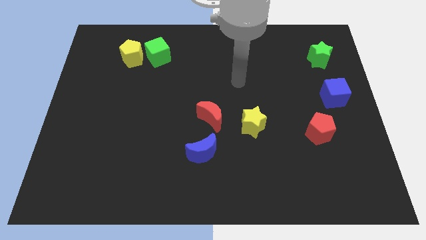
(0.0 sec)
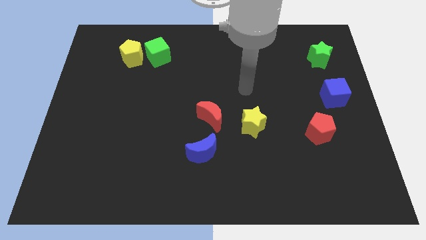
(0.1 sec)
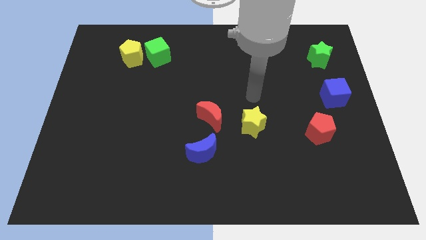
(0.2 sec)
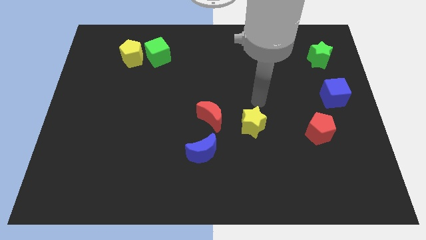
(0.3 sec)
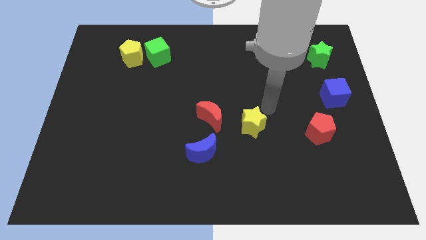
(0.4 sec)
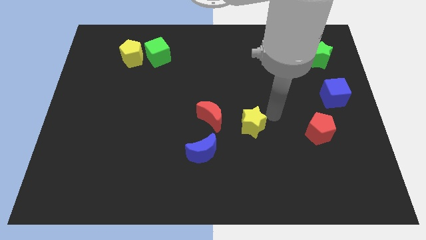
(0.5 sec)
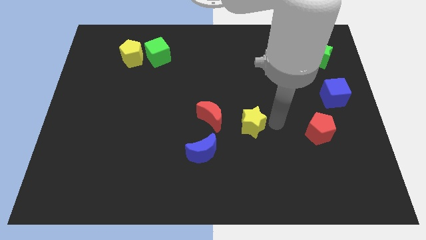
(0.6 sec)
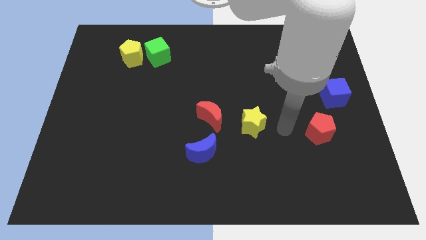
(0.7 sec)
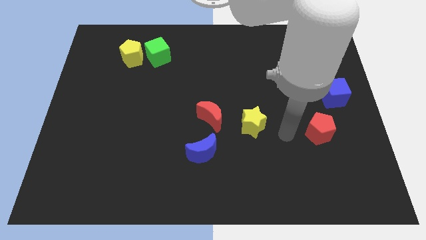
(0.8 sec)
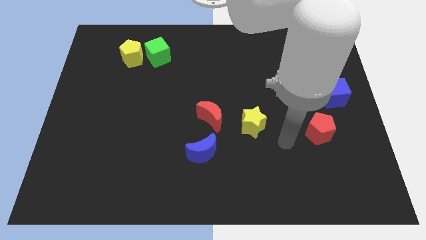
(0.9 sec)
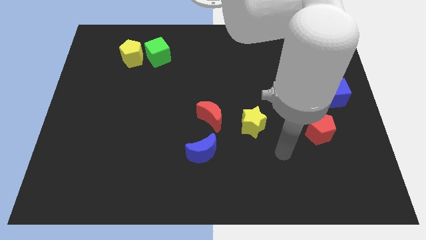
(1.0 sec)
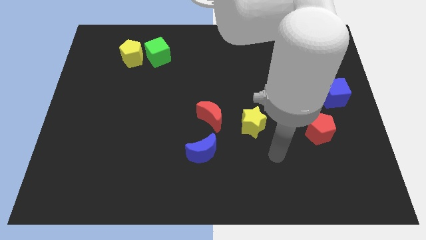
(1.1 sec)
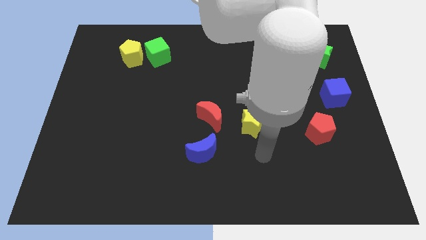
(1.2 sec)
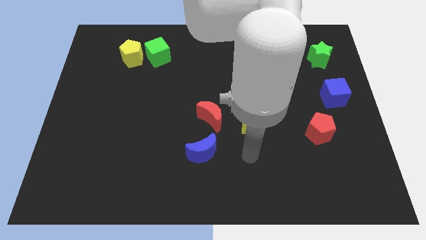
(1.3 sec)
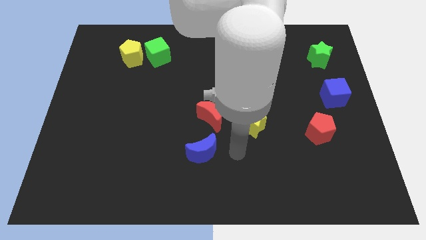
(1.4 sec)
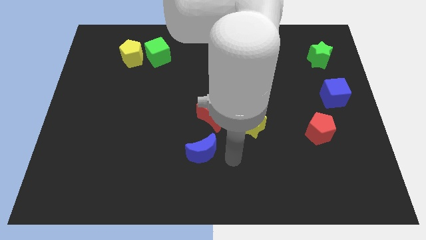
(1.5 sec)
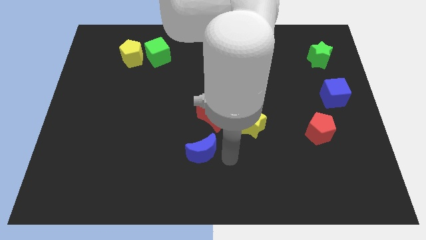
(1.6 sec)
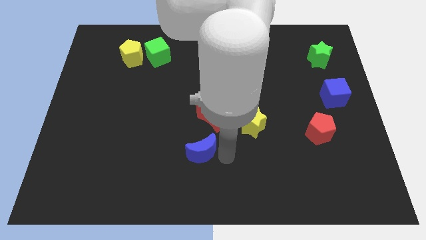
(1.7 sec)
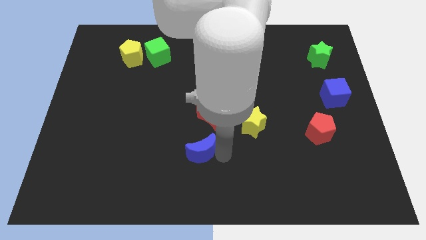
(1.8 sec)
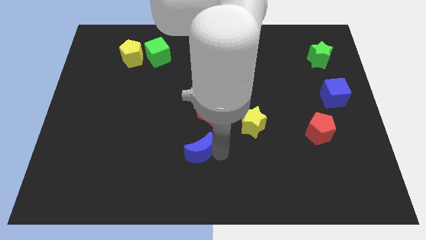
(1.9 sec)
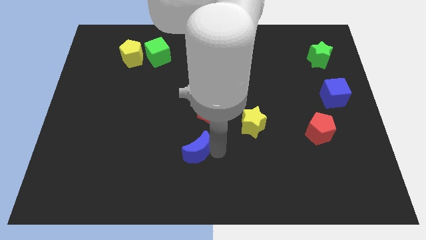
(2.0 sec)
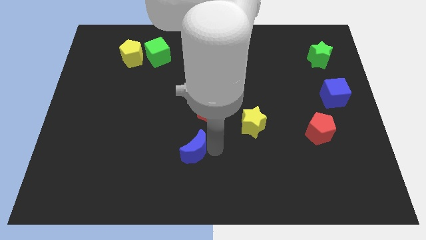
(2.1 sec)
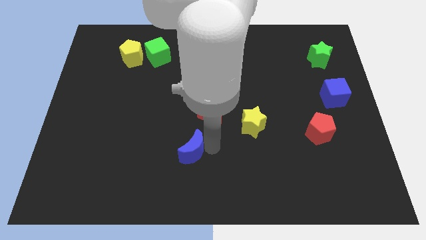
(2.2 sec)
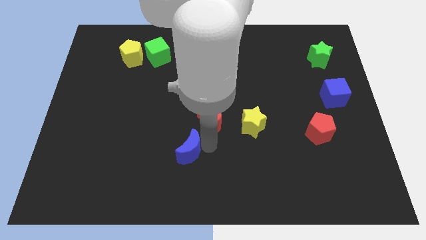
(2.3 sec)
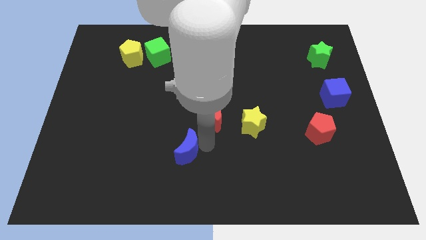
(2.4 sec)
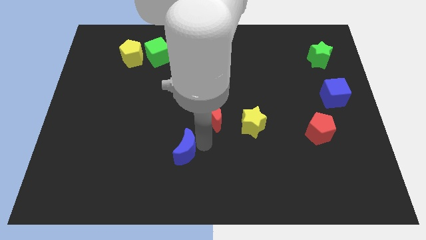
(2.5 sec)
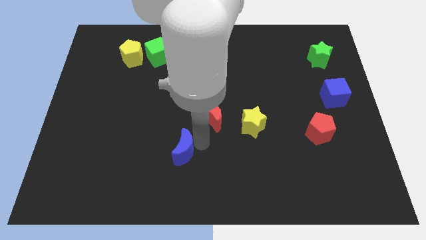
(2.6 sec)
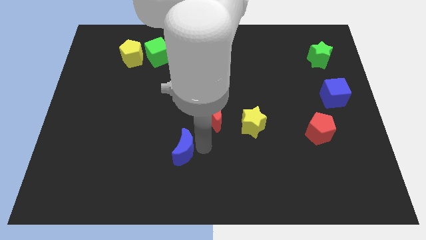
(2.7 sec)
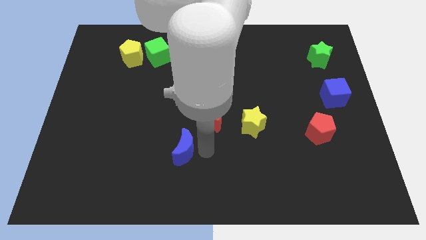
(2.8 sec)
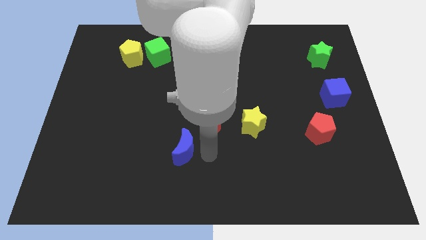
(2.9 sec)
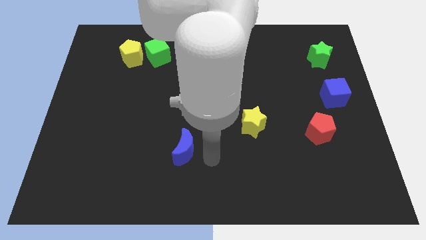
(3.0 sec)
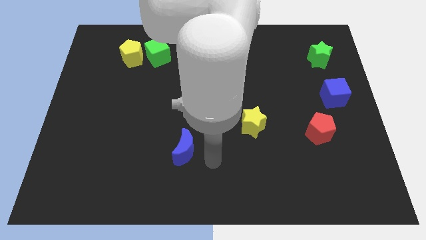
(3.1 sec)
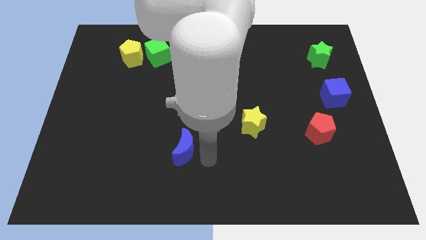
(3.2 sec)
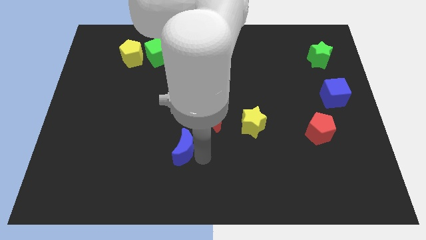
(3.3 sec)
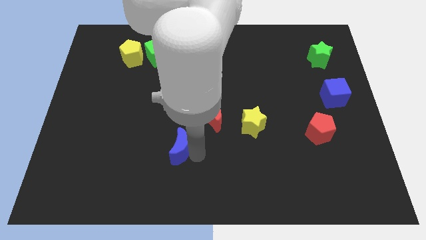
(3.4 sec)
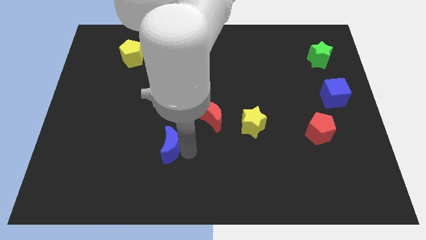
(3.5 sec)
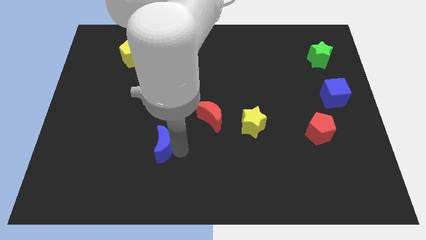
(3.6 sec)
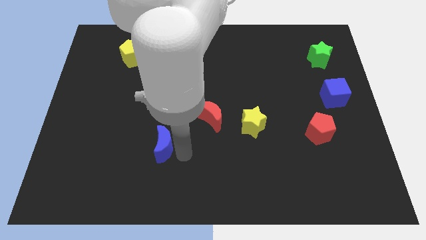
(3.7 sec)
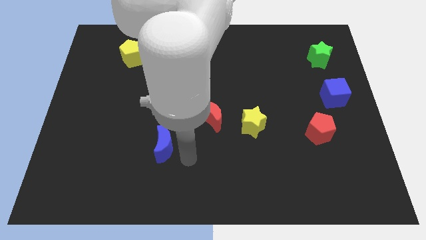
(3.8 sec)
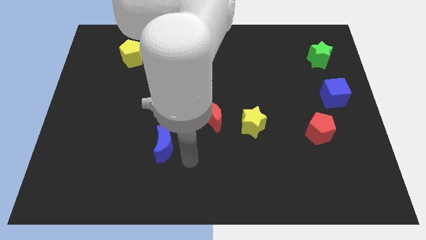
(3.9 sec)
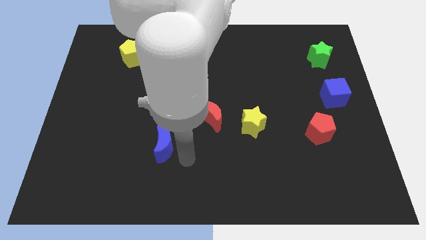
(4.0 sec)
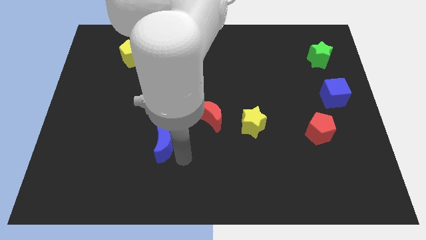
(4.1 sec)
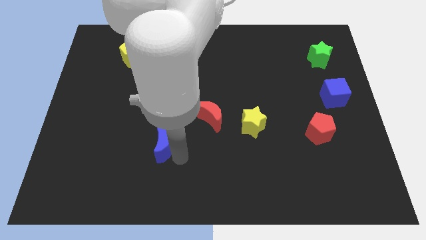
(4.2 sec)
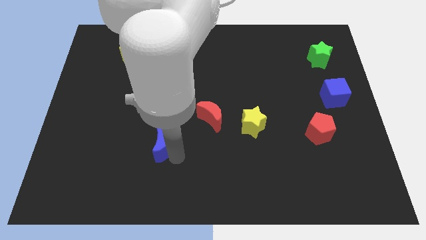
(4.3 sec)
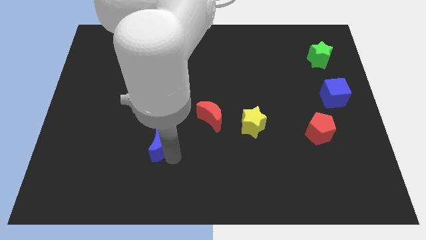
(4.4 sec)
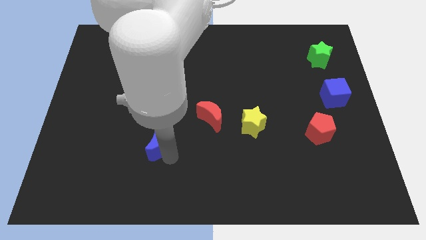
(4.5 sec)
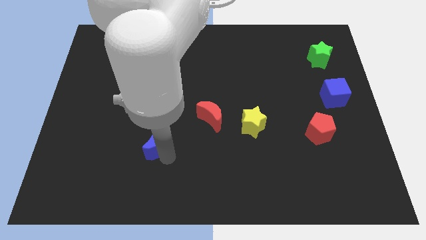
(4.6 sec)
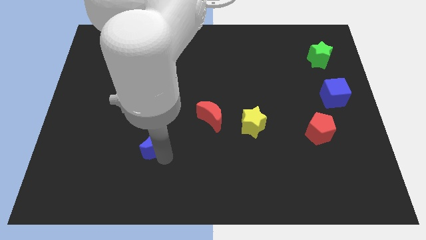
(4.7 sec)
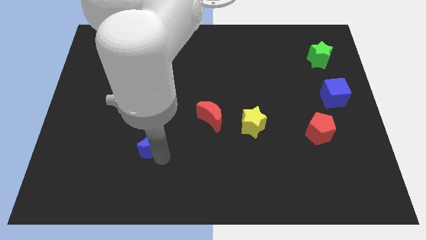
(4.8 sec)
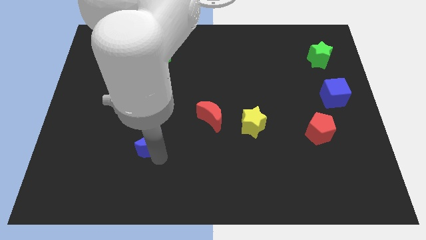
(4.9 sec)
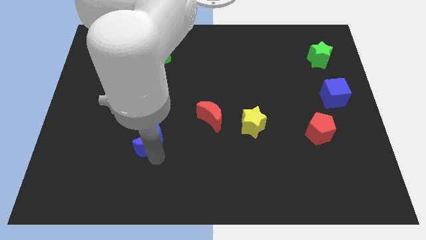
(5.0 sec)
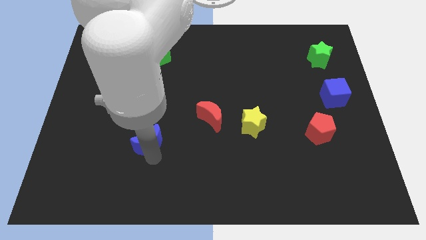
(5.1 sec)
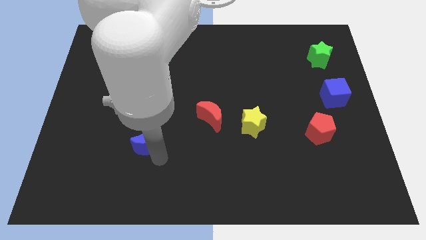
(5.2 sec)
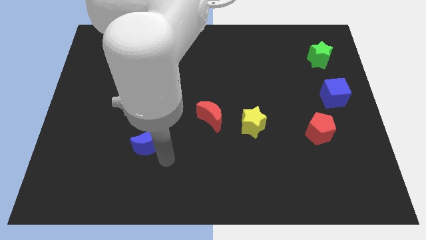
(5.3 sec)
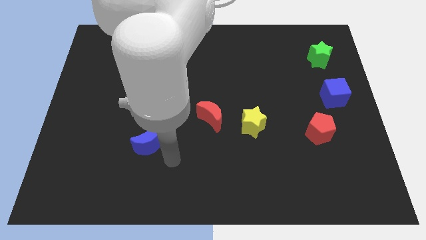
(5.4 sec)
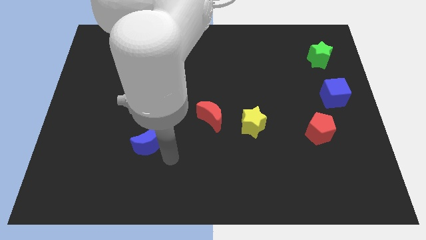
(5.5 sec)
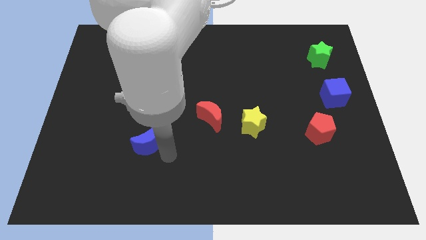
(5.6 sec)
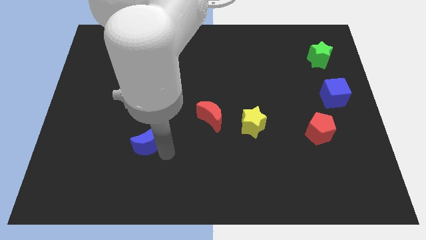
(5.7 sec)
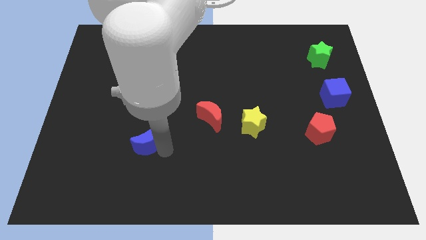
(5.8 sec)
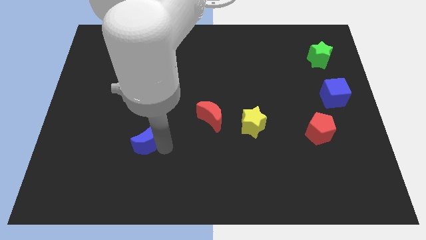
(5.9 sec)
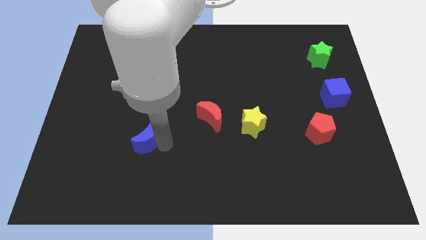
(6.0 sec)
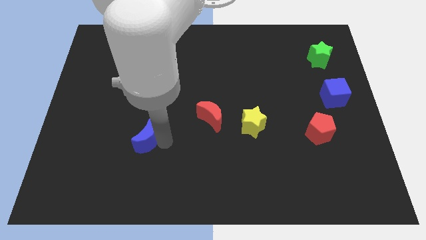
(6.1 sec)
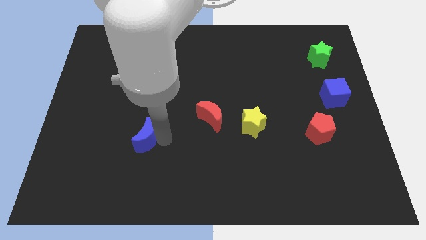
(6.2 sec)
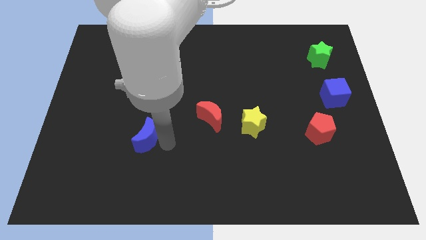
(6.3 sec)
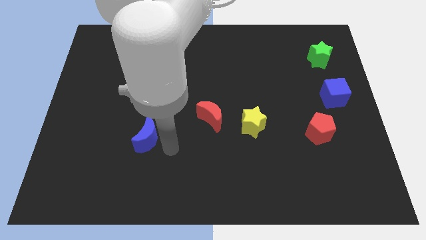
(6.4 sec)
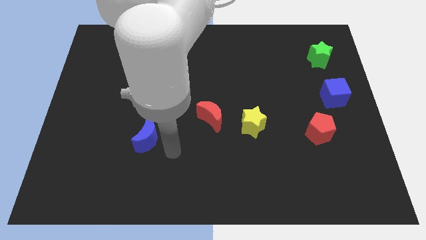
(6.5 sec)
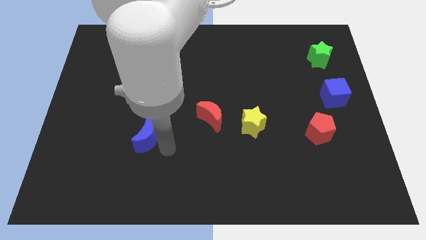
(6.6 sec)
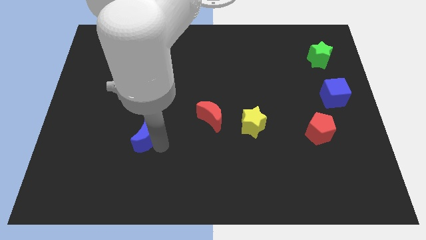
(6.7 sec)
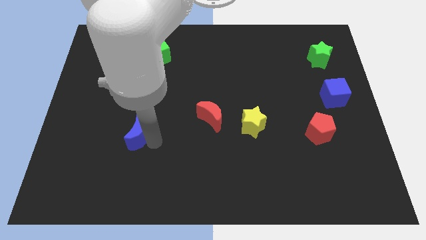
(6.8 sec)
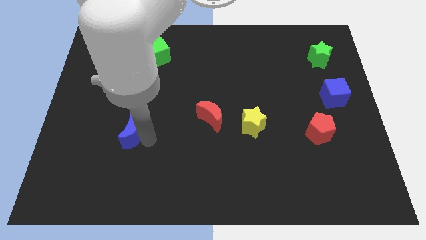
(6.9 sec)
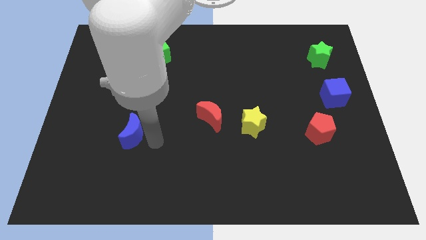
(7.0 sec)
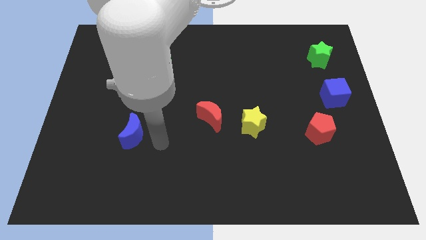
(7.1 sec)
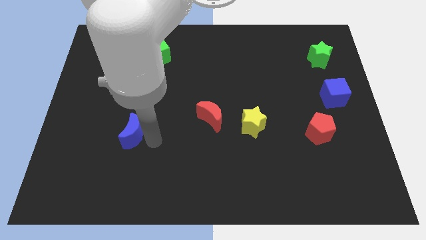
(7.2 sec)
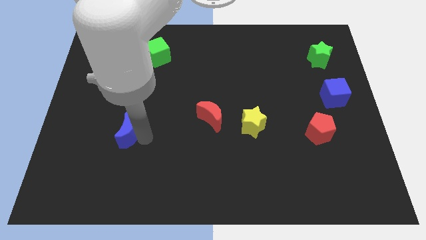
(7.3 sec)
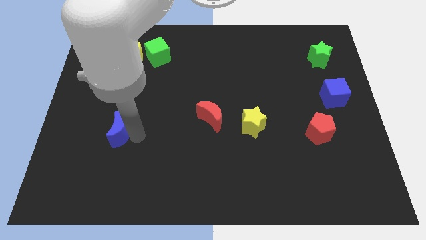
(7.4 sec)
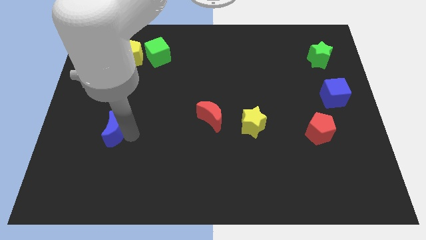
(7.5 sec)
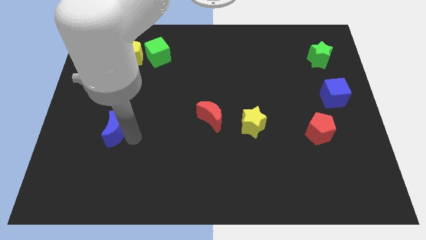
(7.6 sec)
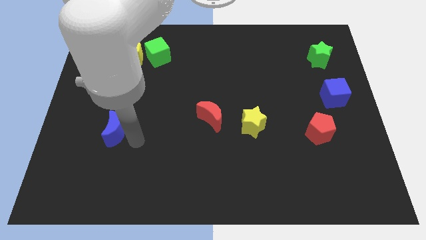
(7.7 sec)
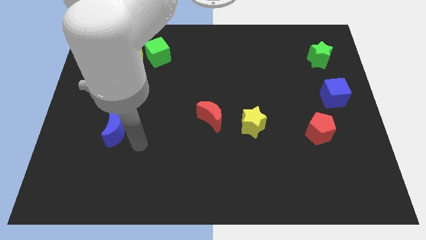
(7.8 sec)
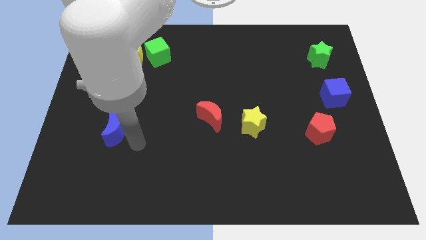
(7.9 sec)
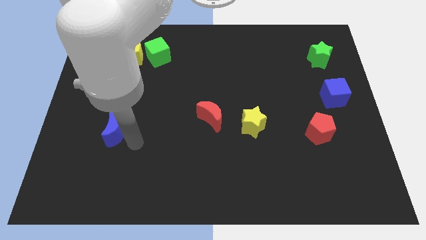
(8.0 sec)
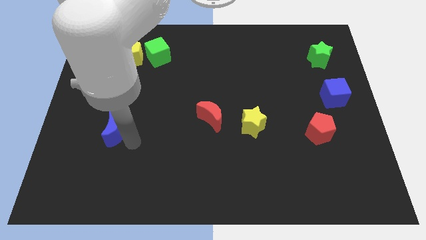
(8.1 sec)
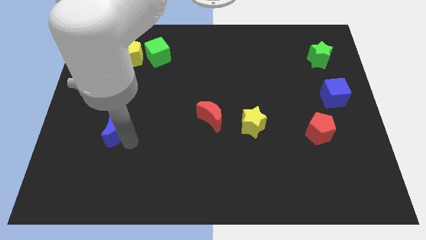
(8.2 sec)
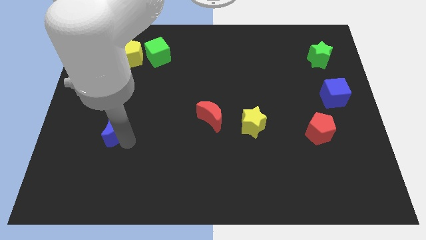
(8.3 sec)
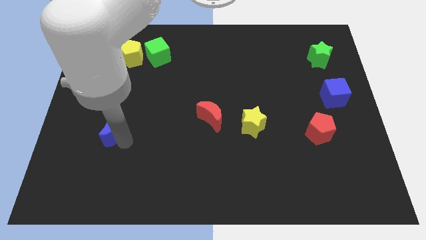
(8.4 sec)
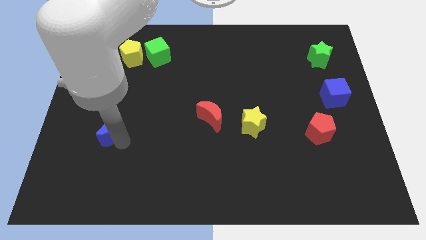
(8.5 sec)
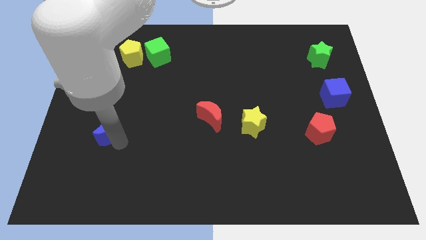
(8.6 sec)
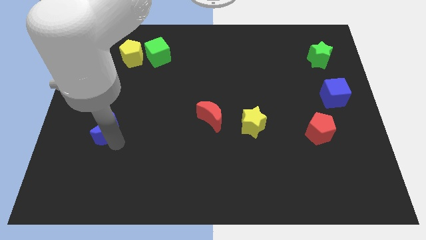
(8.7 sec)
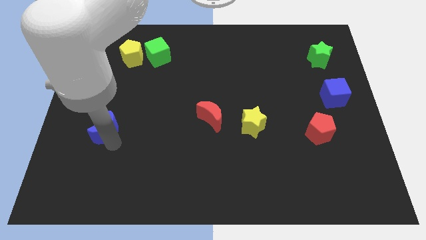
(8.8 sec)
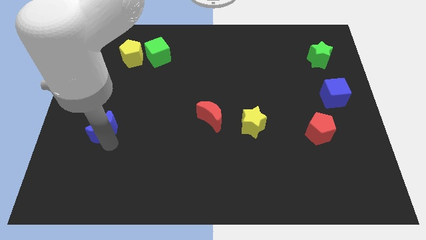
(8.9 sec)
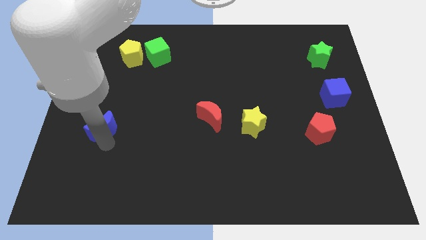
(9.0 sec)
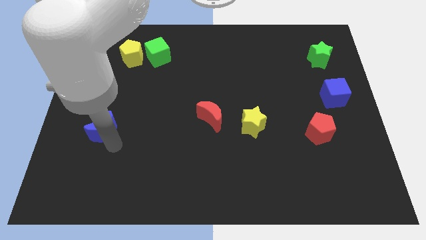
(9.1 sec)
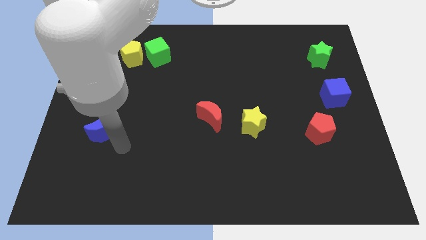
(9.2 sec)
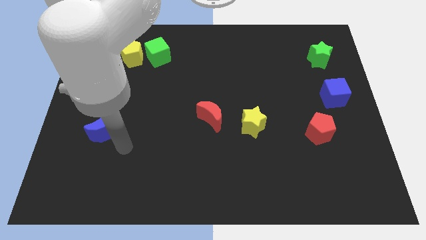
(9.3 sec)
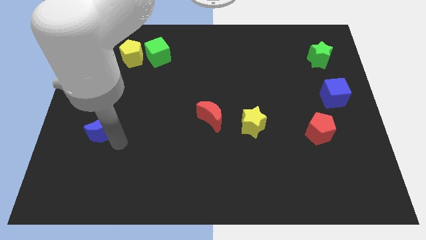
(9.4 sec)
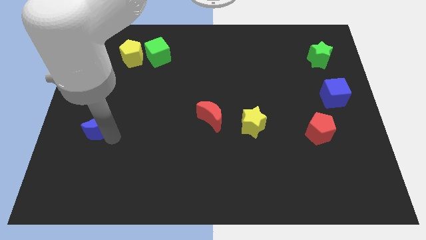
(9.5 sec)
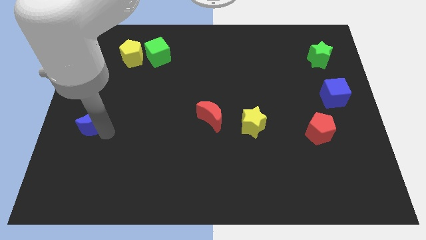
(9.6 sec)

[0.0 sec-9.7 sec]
push the blue moon to the left side of the board
